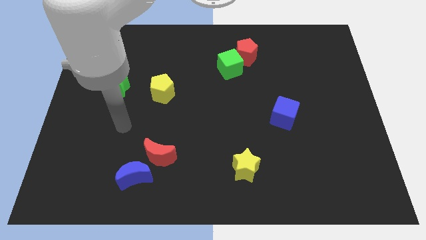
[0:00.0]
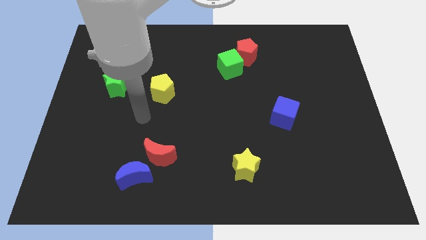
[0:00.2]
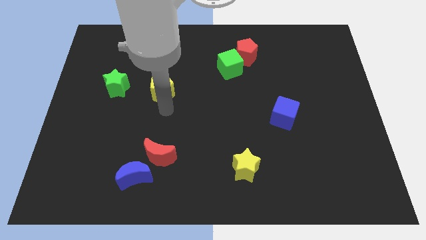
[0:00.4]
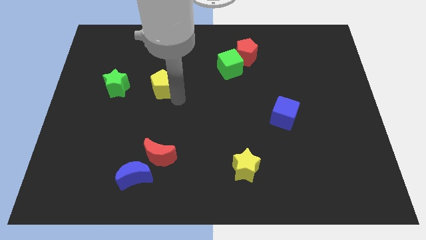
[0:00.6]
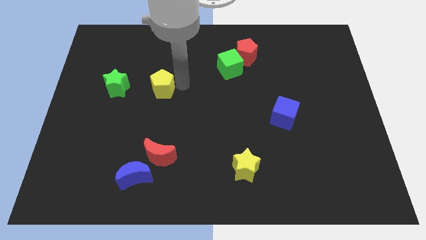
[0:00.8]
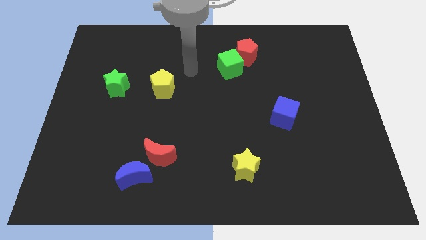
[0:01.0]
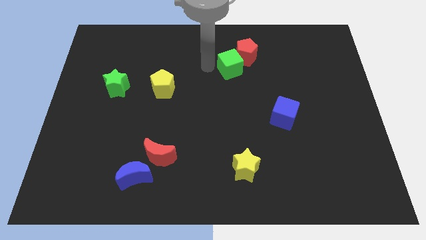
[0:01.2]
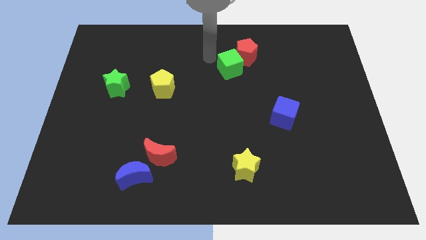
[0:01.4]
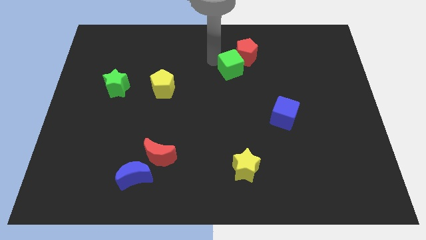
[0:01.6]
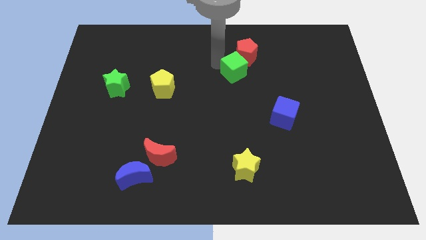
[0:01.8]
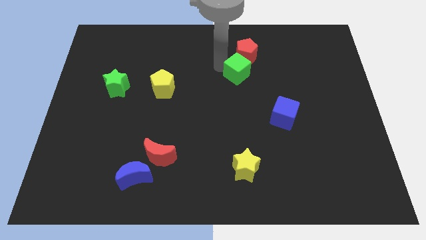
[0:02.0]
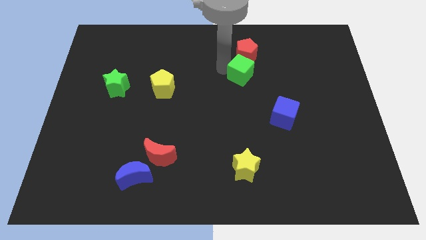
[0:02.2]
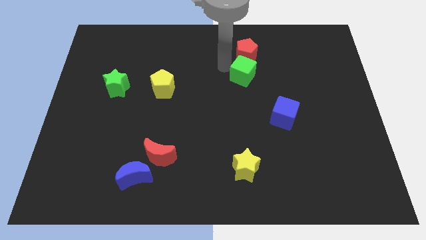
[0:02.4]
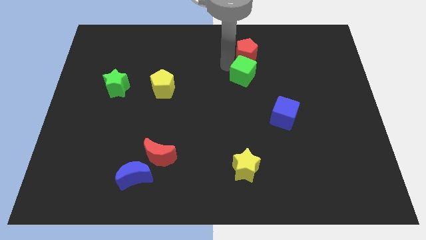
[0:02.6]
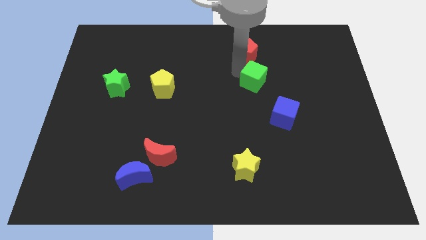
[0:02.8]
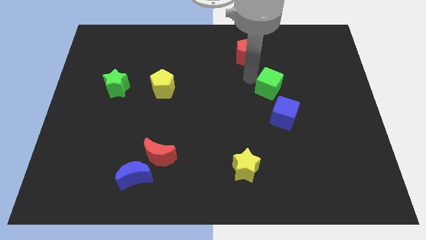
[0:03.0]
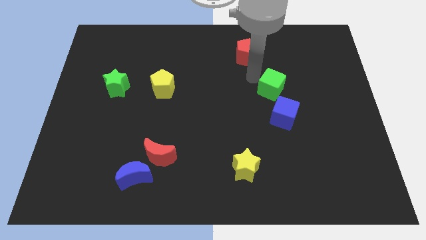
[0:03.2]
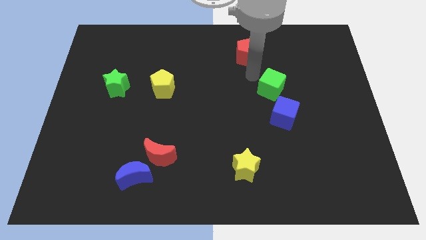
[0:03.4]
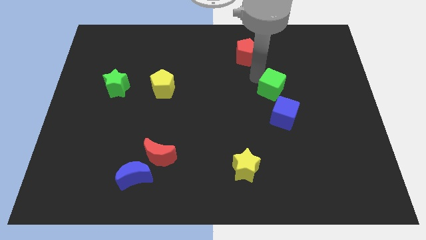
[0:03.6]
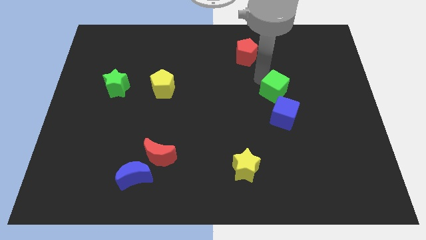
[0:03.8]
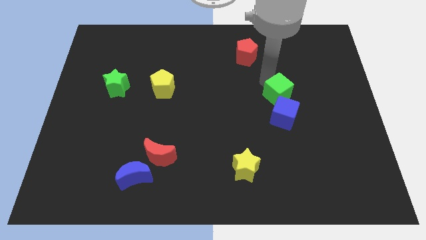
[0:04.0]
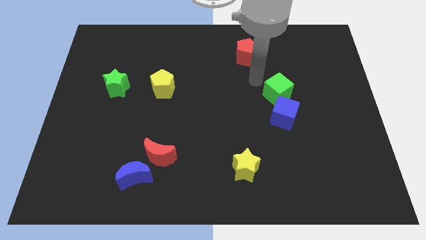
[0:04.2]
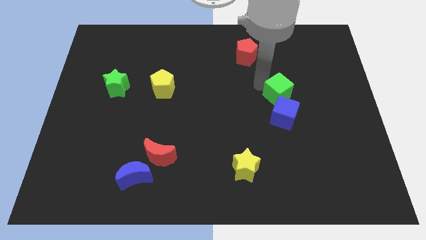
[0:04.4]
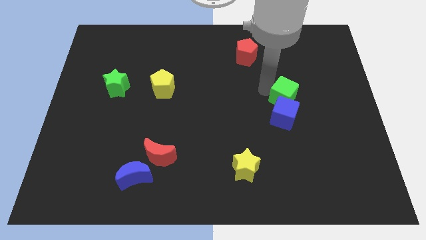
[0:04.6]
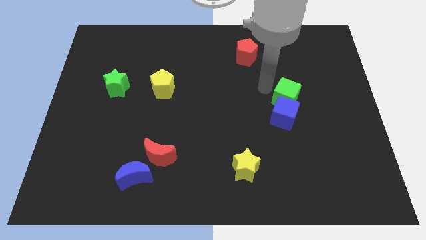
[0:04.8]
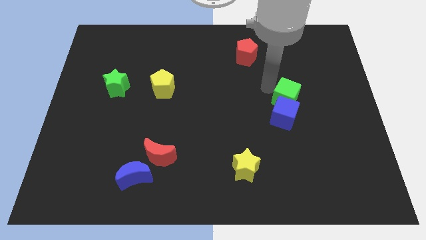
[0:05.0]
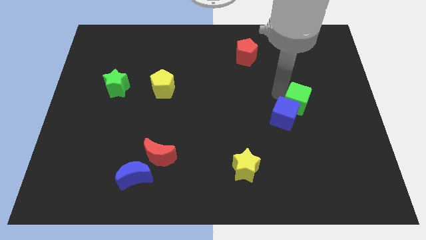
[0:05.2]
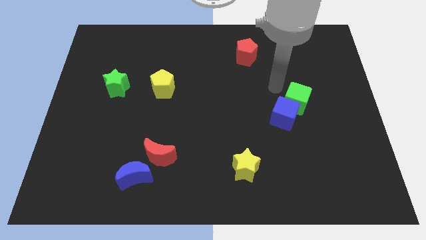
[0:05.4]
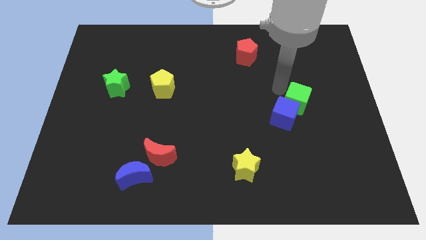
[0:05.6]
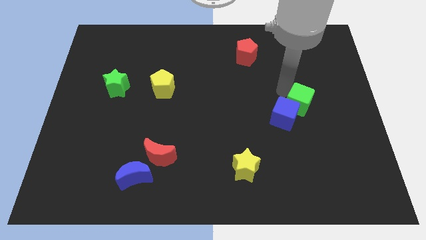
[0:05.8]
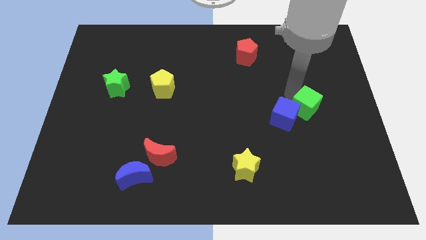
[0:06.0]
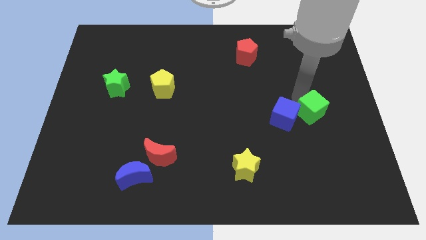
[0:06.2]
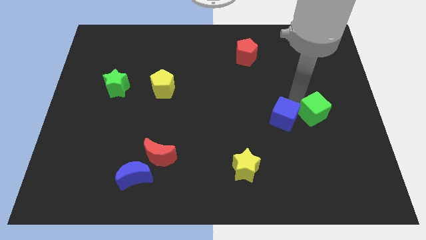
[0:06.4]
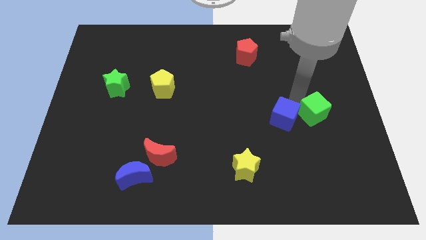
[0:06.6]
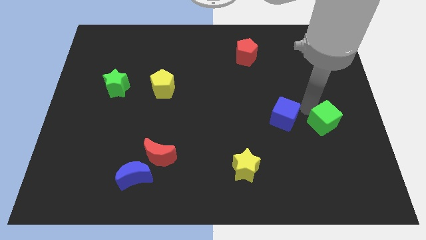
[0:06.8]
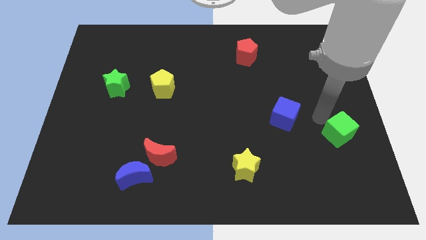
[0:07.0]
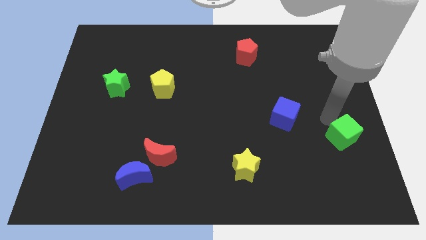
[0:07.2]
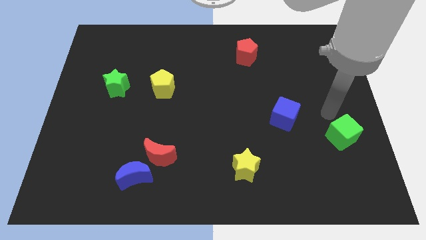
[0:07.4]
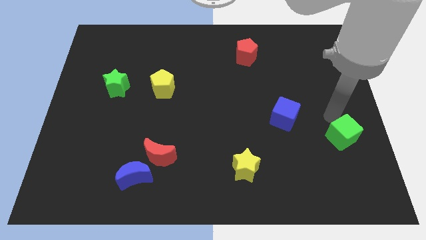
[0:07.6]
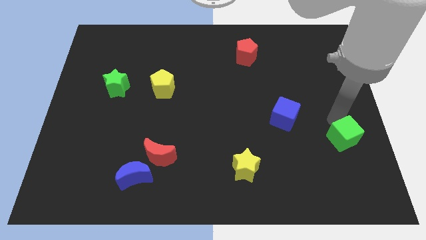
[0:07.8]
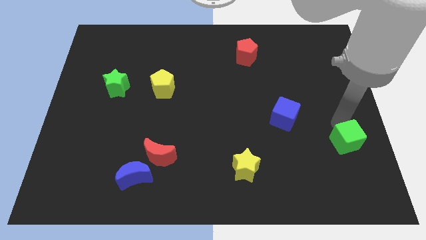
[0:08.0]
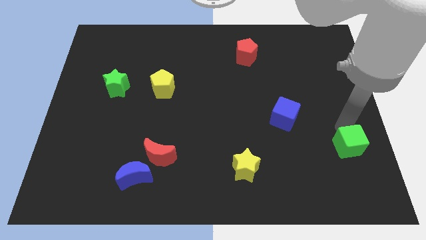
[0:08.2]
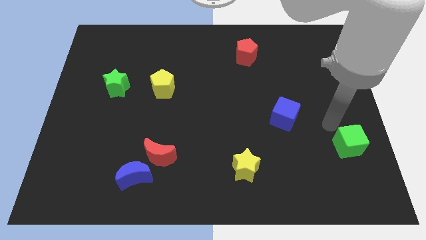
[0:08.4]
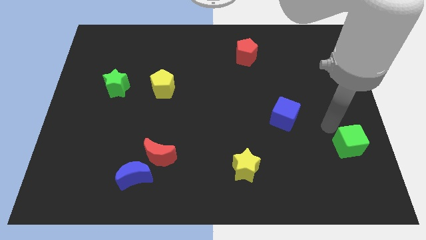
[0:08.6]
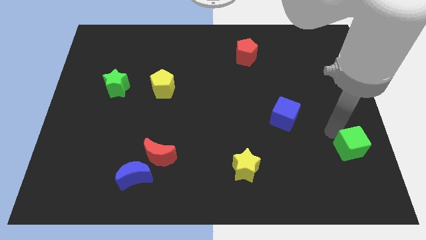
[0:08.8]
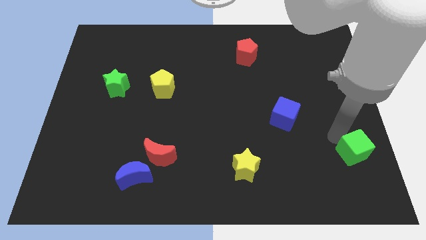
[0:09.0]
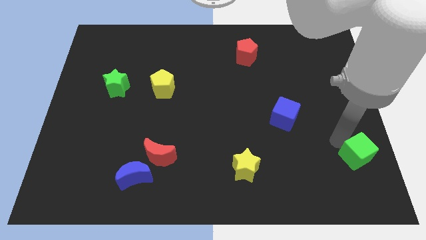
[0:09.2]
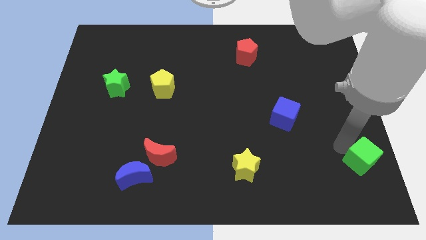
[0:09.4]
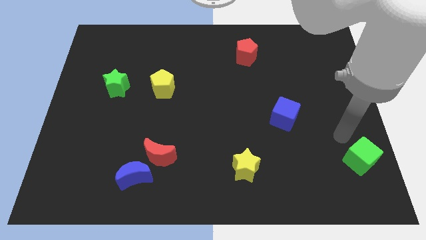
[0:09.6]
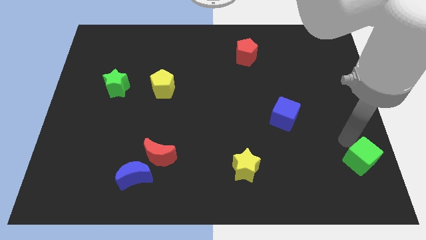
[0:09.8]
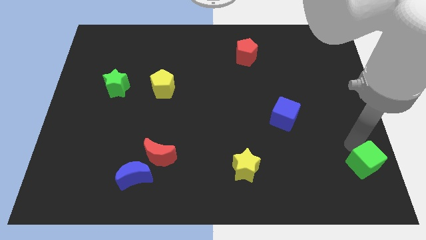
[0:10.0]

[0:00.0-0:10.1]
move the green cube to the bottom right

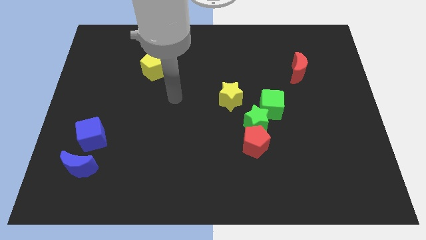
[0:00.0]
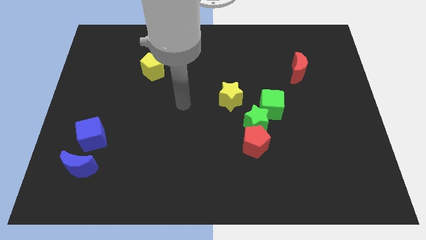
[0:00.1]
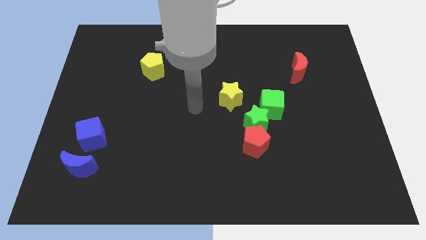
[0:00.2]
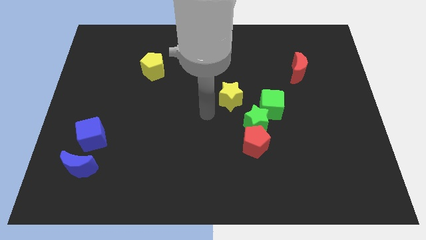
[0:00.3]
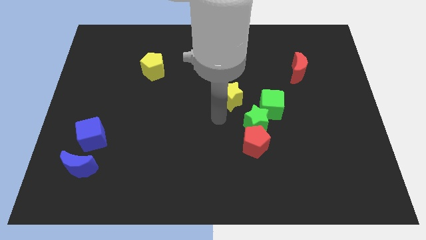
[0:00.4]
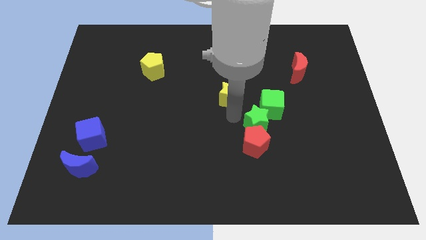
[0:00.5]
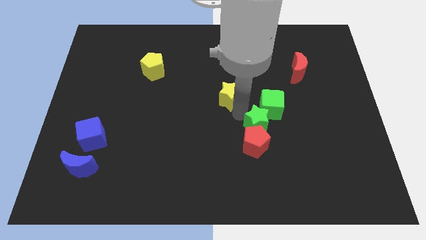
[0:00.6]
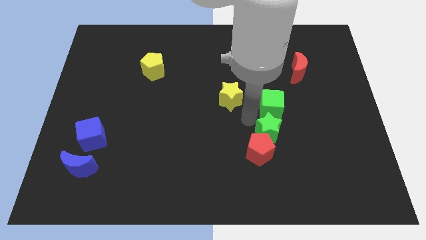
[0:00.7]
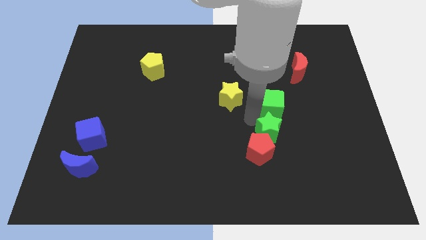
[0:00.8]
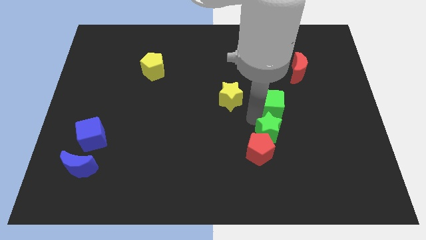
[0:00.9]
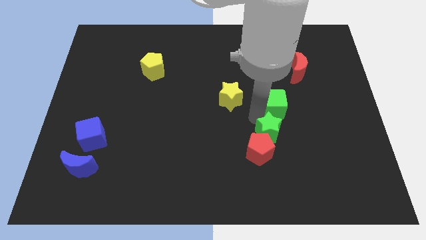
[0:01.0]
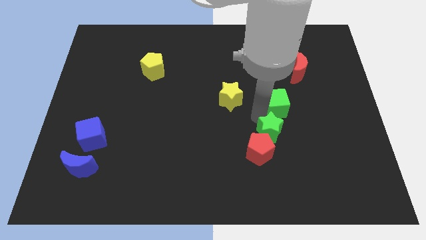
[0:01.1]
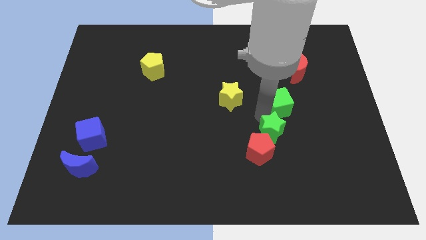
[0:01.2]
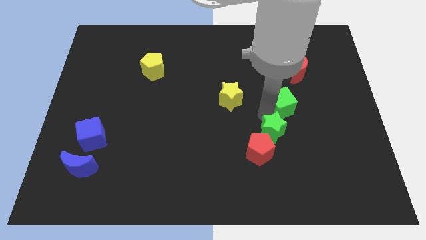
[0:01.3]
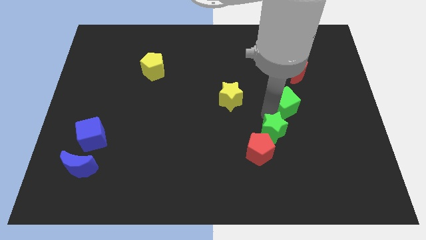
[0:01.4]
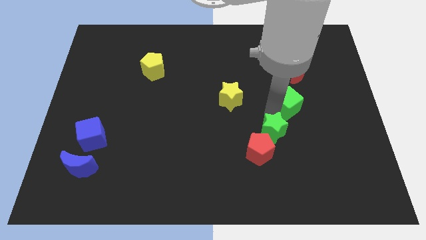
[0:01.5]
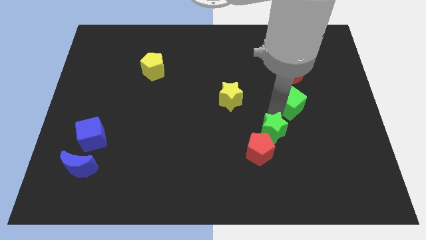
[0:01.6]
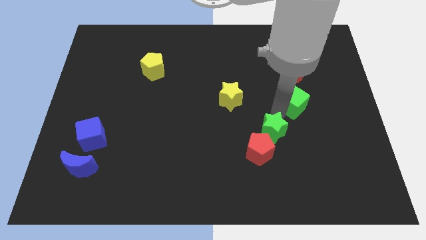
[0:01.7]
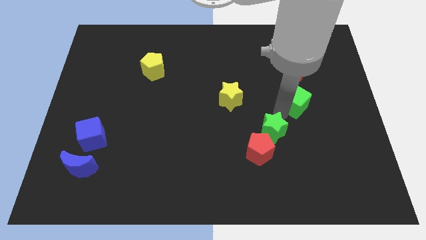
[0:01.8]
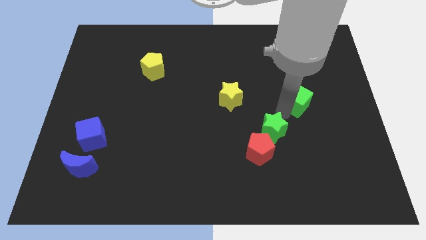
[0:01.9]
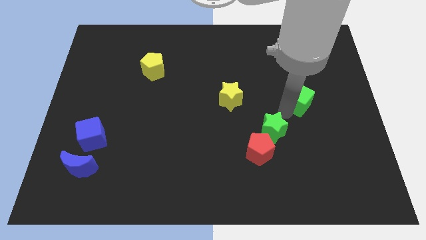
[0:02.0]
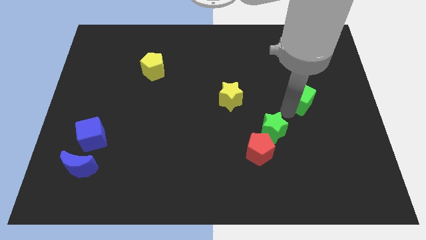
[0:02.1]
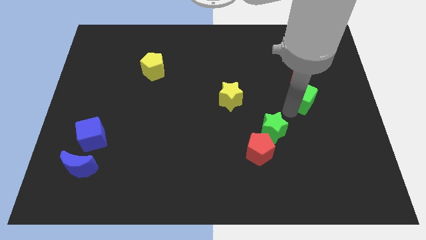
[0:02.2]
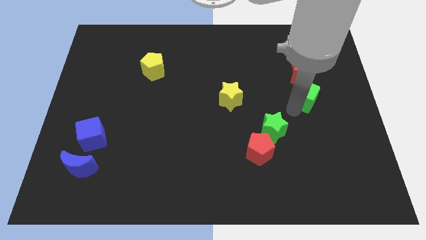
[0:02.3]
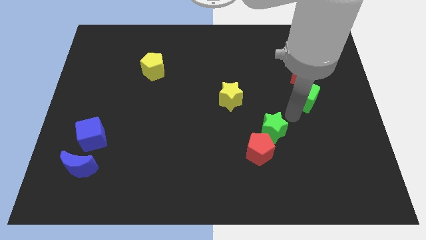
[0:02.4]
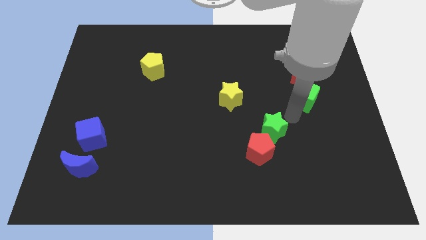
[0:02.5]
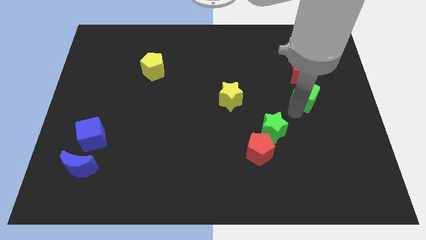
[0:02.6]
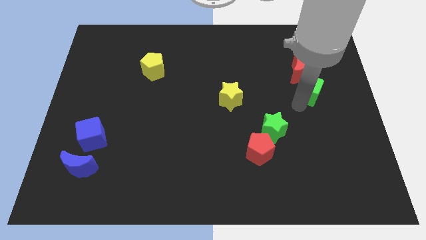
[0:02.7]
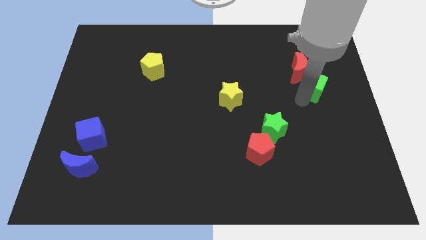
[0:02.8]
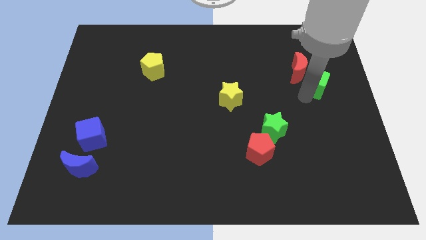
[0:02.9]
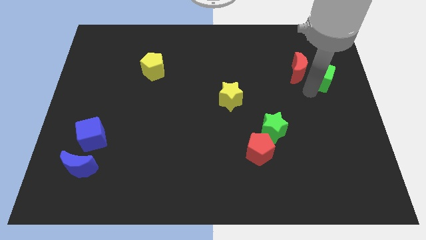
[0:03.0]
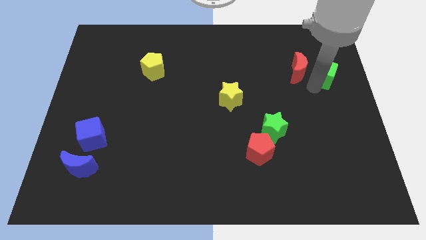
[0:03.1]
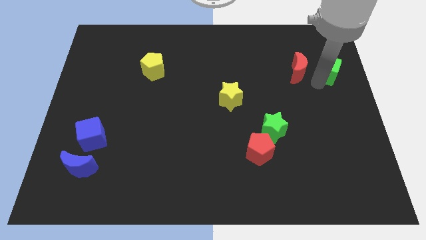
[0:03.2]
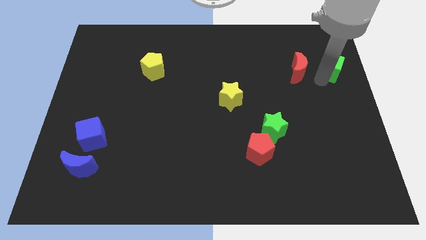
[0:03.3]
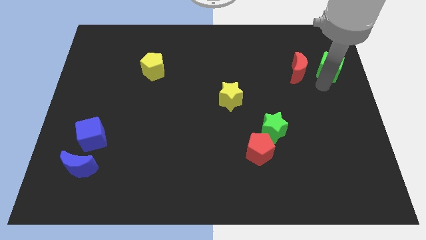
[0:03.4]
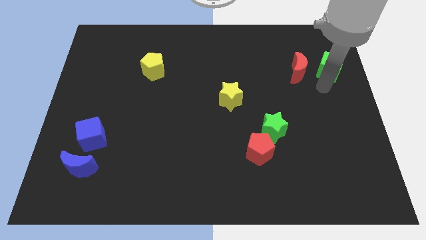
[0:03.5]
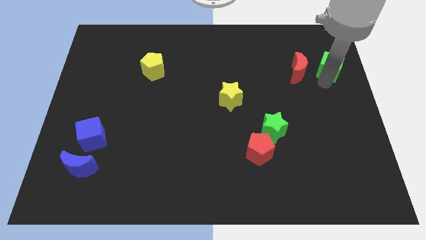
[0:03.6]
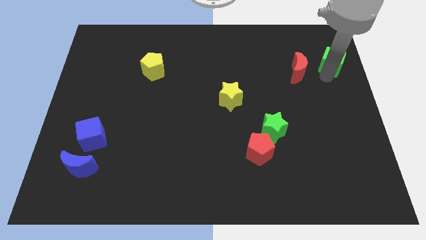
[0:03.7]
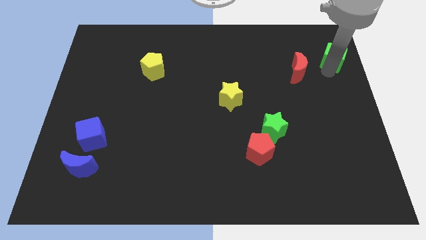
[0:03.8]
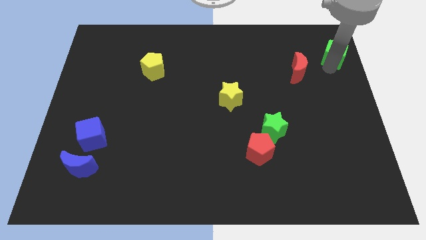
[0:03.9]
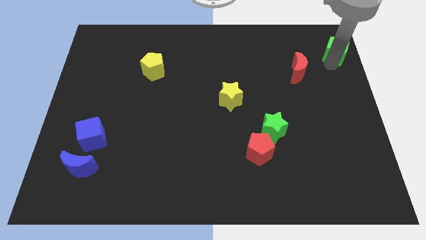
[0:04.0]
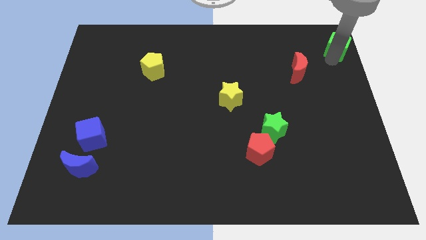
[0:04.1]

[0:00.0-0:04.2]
put the green cube to the top right corner
